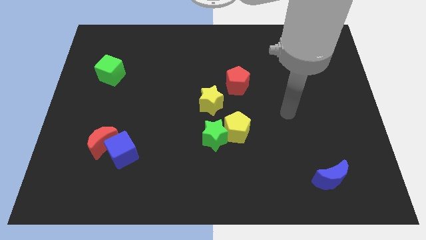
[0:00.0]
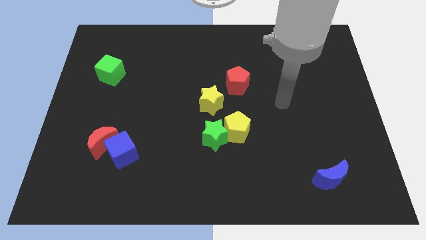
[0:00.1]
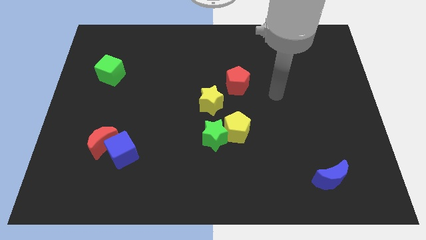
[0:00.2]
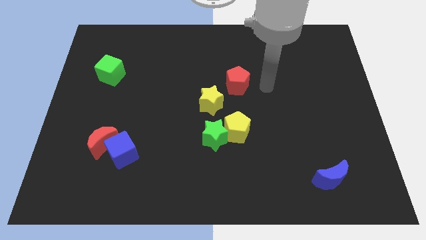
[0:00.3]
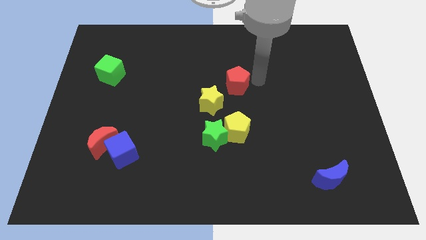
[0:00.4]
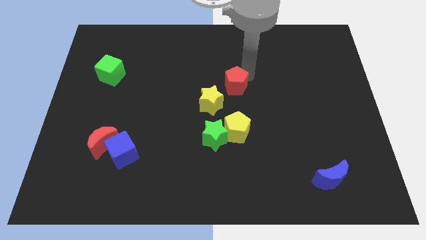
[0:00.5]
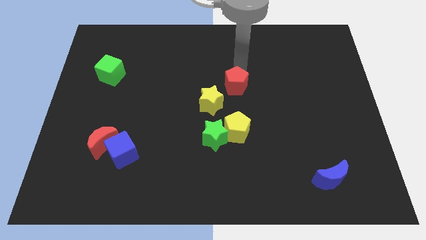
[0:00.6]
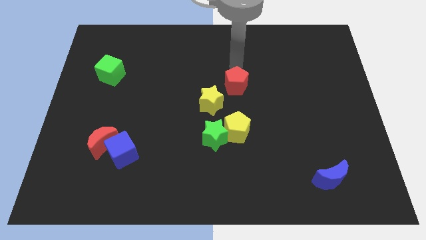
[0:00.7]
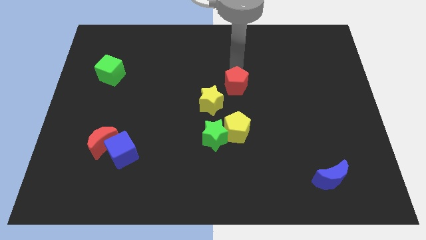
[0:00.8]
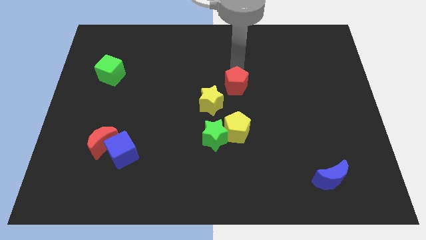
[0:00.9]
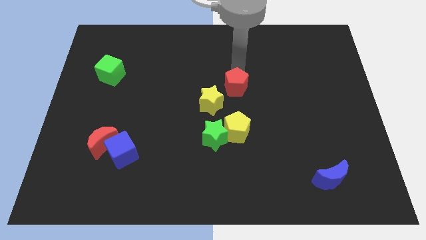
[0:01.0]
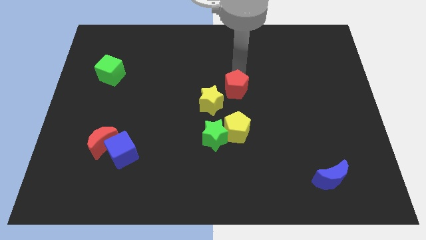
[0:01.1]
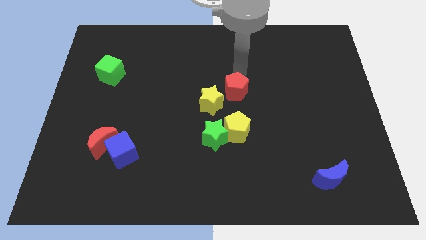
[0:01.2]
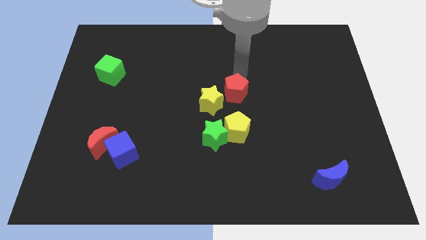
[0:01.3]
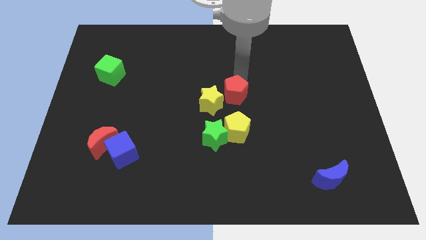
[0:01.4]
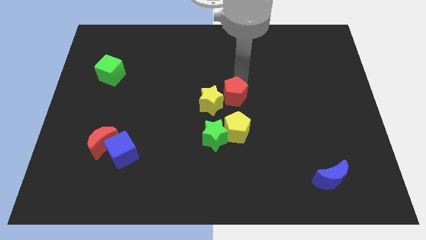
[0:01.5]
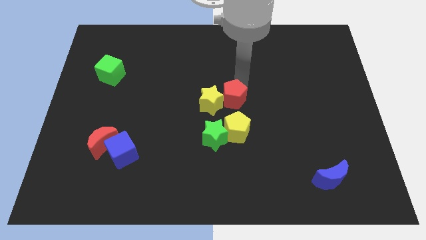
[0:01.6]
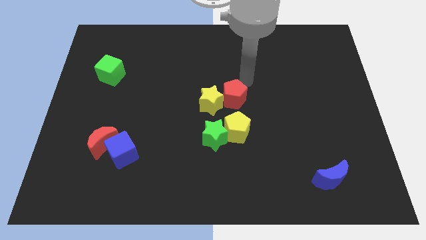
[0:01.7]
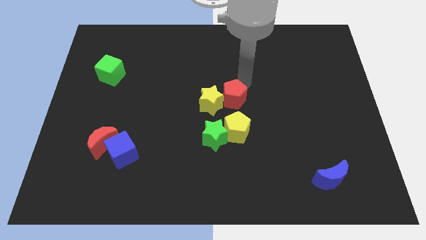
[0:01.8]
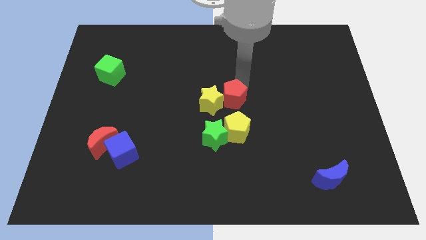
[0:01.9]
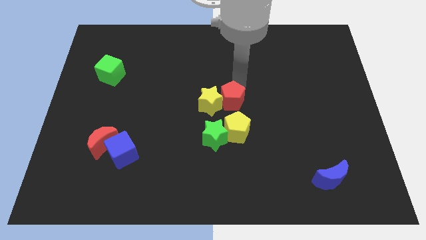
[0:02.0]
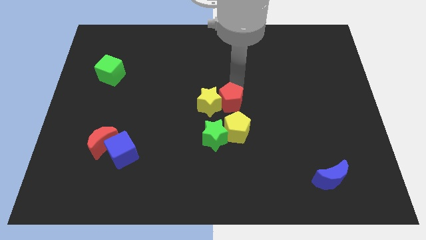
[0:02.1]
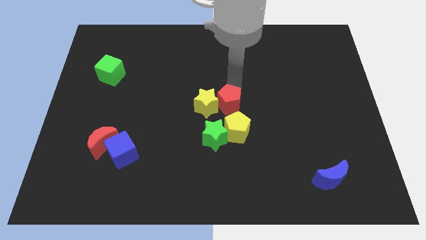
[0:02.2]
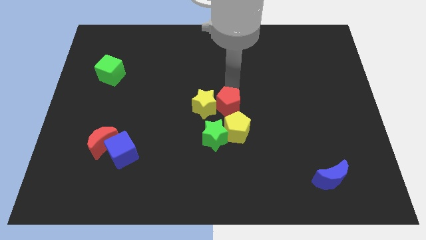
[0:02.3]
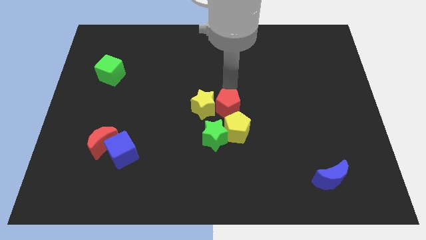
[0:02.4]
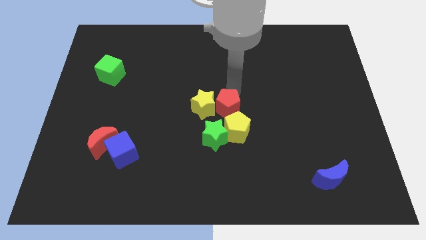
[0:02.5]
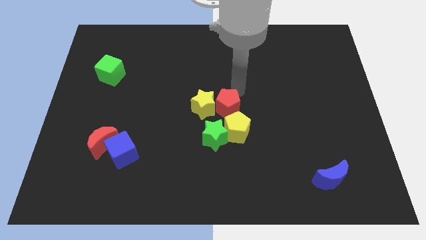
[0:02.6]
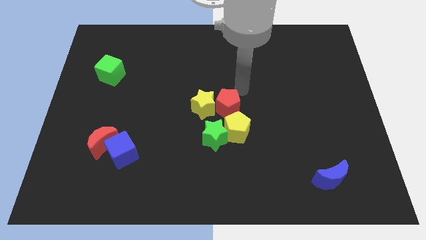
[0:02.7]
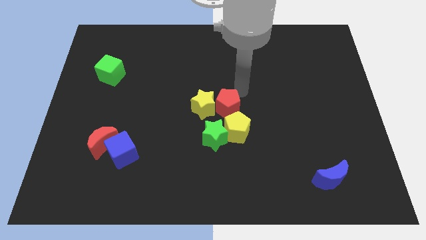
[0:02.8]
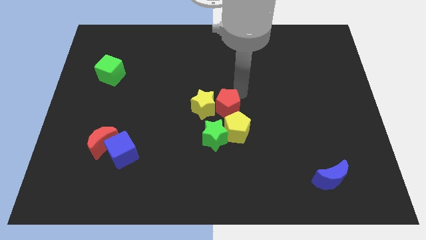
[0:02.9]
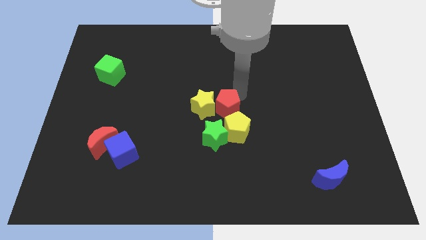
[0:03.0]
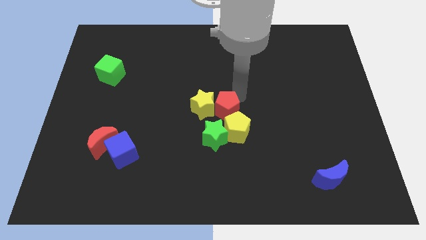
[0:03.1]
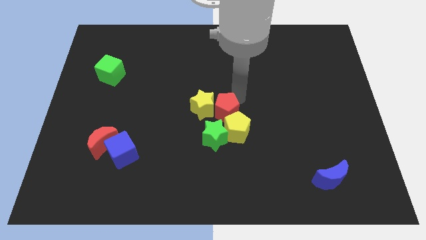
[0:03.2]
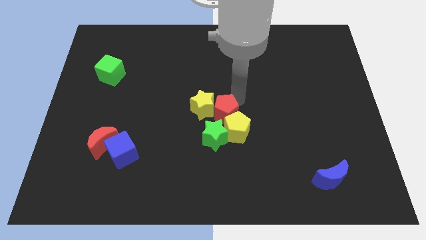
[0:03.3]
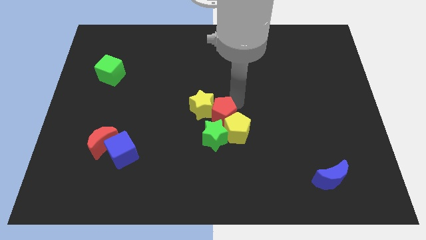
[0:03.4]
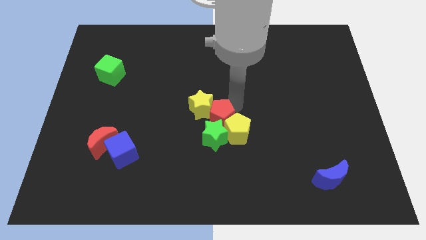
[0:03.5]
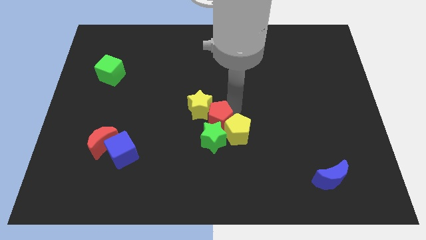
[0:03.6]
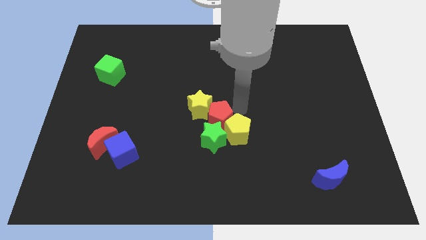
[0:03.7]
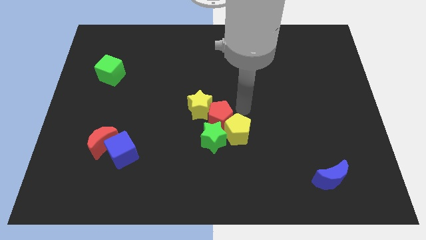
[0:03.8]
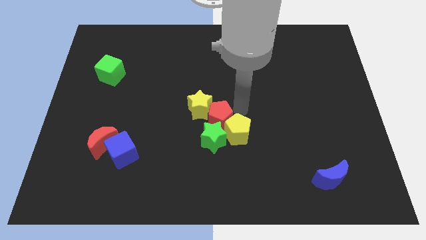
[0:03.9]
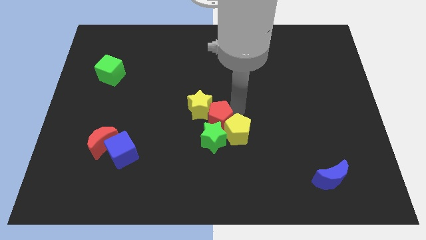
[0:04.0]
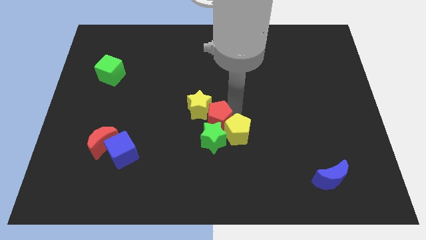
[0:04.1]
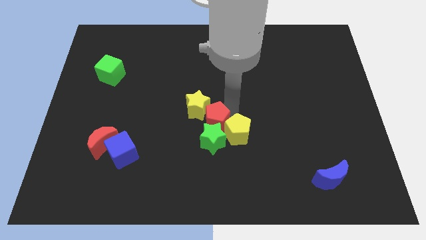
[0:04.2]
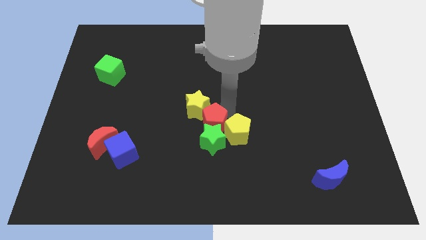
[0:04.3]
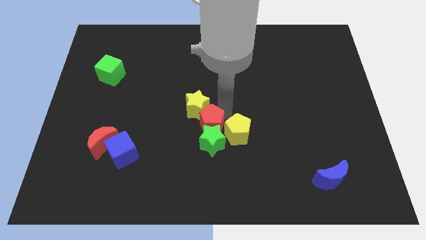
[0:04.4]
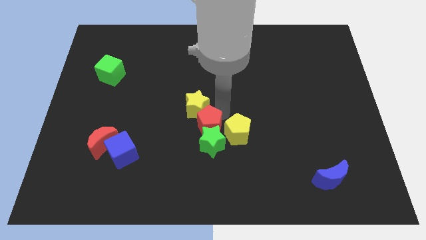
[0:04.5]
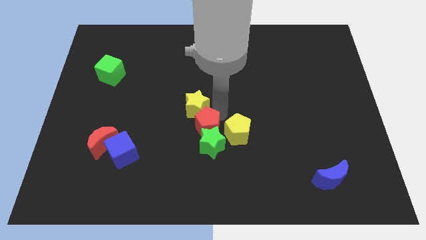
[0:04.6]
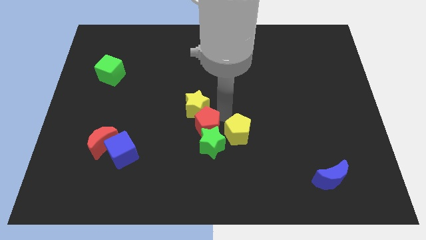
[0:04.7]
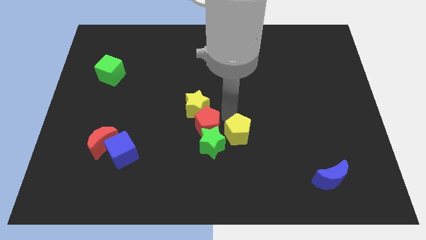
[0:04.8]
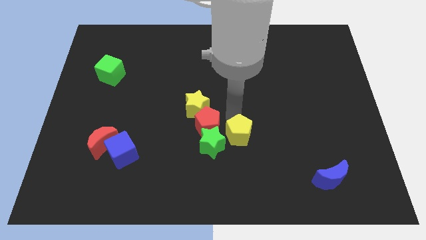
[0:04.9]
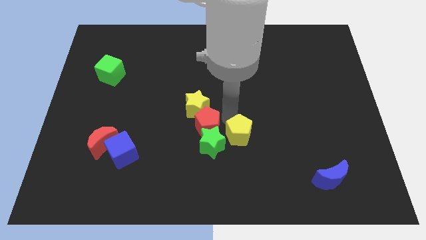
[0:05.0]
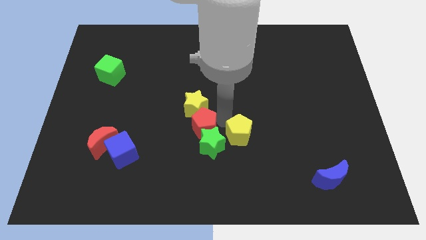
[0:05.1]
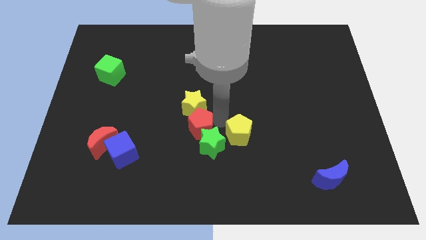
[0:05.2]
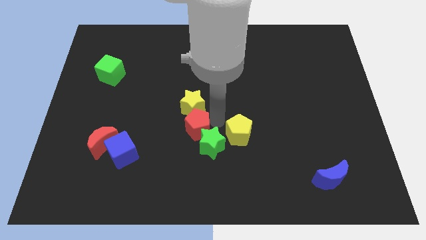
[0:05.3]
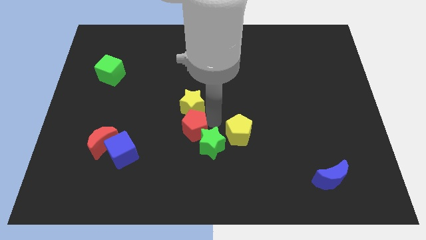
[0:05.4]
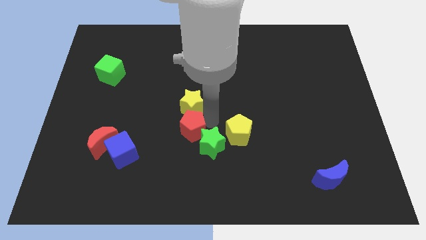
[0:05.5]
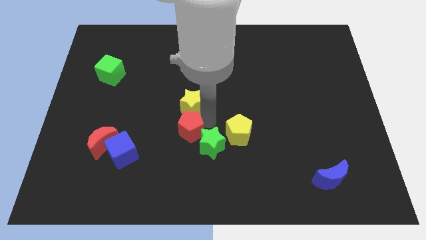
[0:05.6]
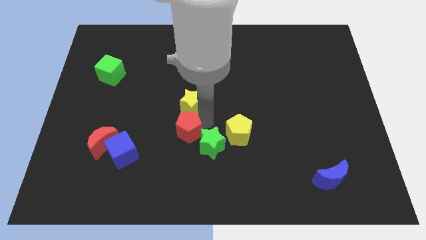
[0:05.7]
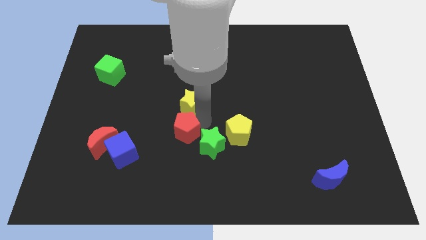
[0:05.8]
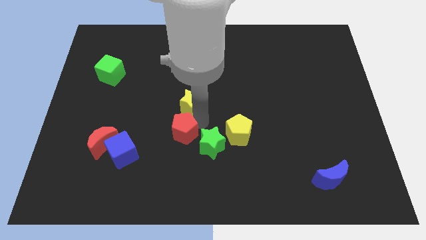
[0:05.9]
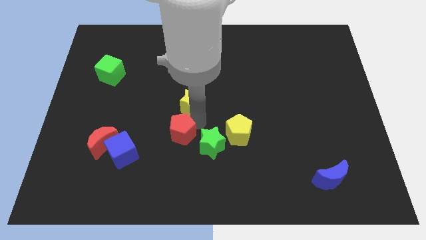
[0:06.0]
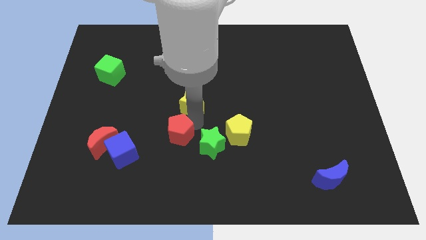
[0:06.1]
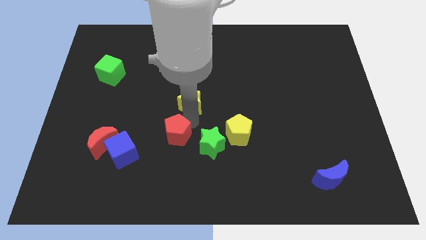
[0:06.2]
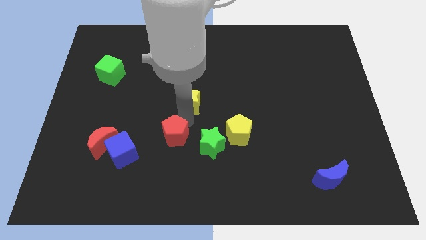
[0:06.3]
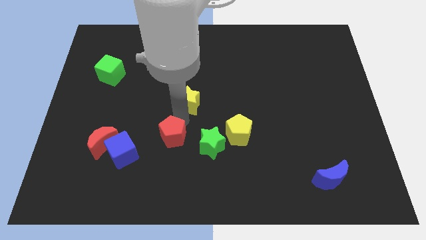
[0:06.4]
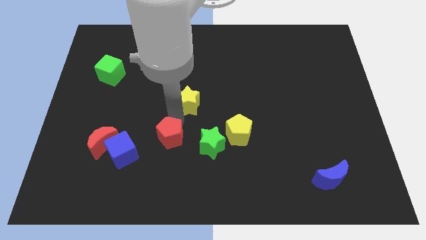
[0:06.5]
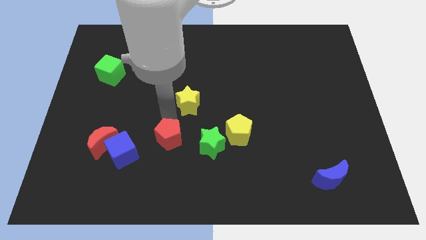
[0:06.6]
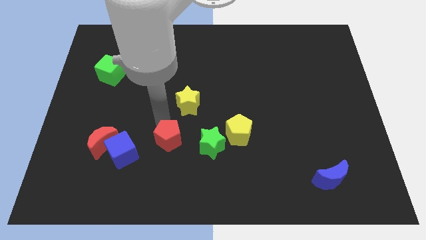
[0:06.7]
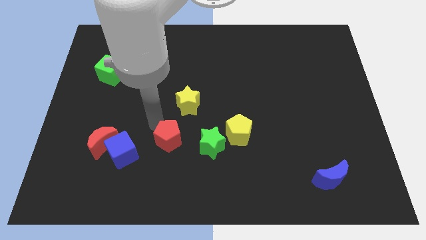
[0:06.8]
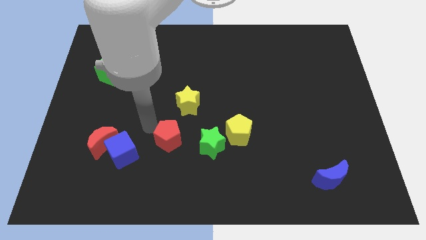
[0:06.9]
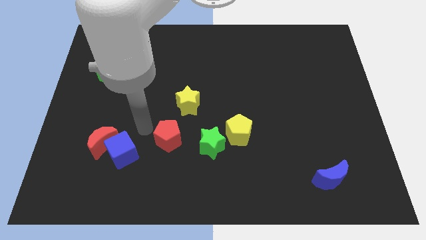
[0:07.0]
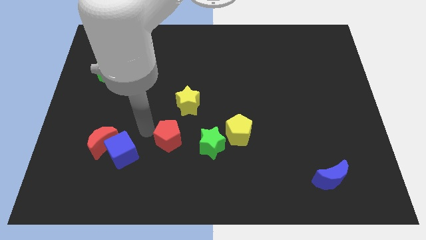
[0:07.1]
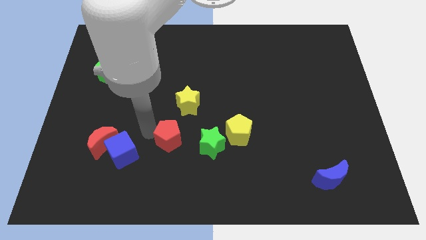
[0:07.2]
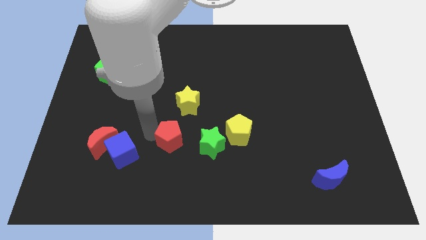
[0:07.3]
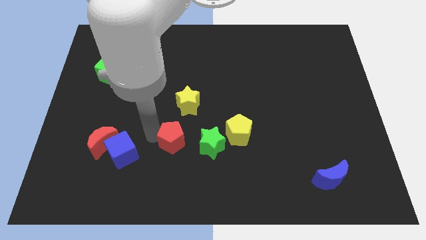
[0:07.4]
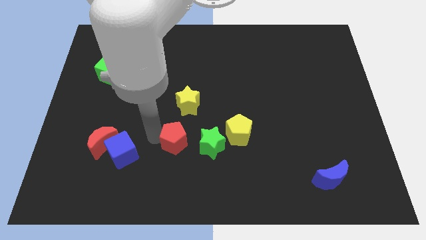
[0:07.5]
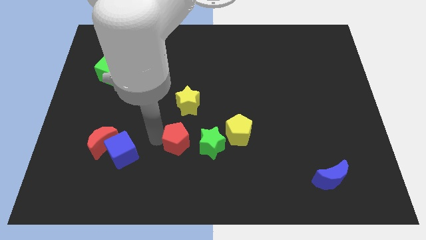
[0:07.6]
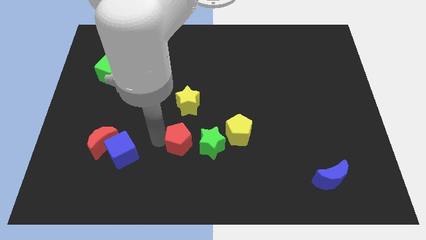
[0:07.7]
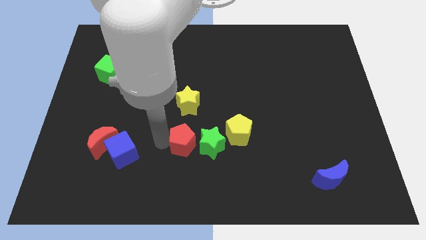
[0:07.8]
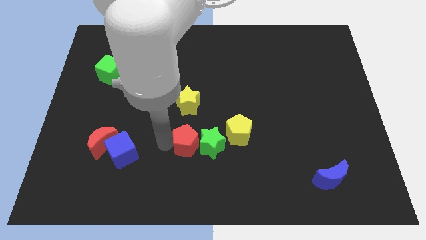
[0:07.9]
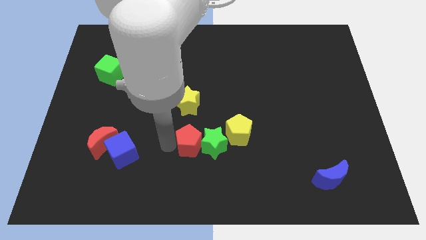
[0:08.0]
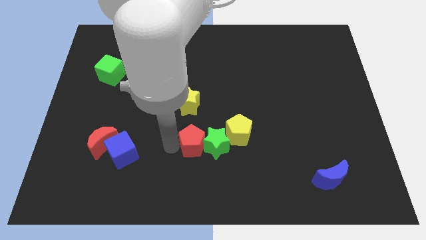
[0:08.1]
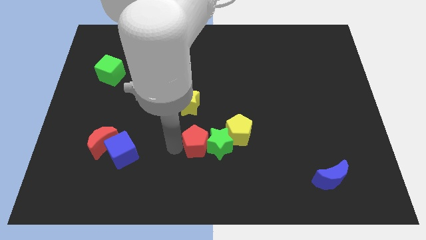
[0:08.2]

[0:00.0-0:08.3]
put the red pentagon diagonally down and to the left of the yellow pentagon
